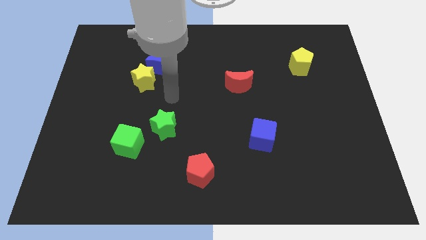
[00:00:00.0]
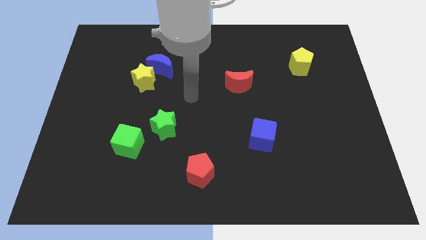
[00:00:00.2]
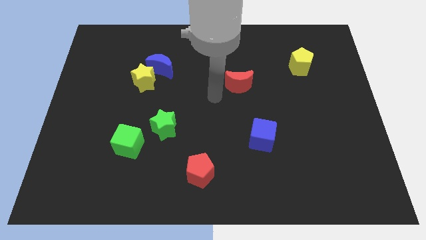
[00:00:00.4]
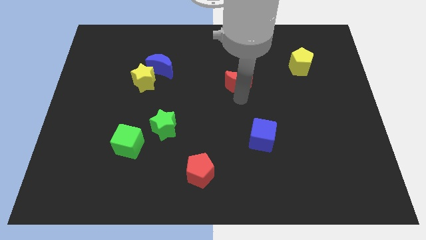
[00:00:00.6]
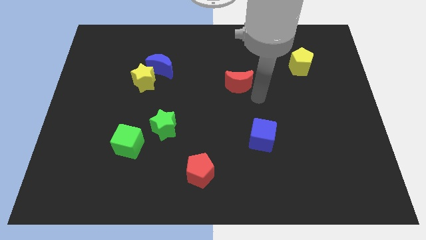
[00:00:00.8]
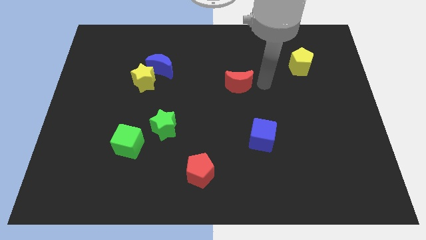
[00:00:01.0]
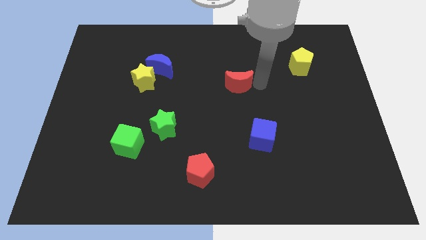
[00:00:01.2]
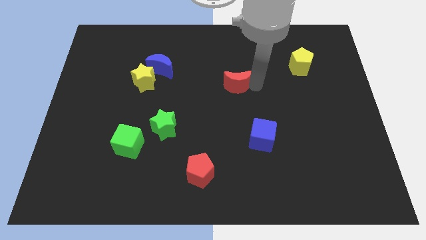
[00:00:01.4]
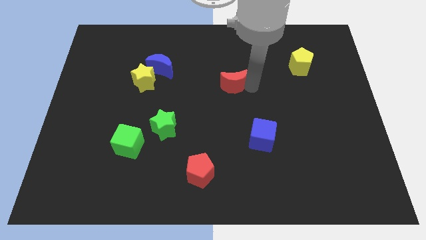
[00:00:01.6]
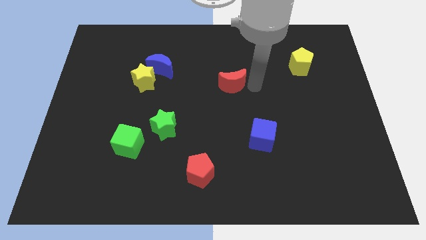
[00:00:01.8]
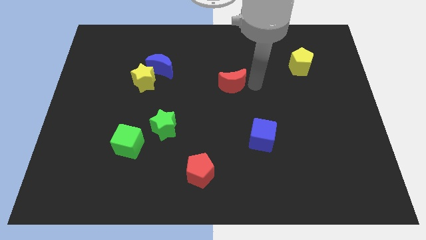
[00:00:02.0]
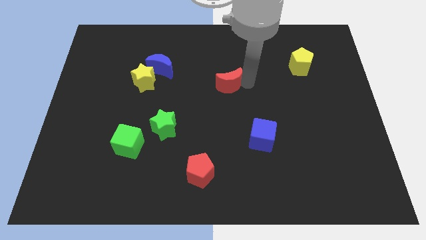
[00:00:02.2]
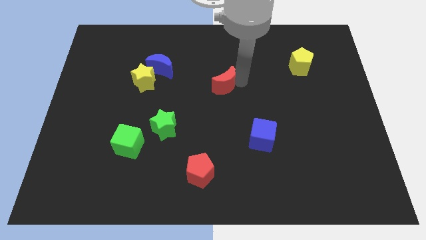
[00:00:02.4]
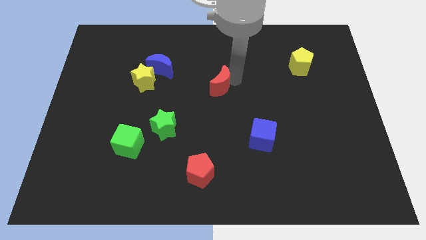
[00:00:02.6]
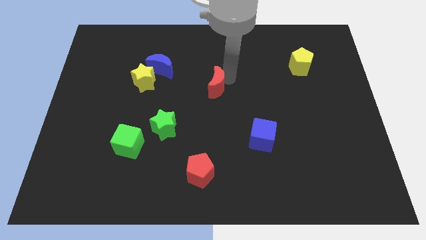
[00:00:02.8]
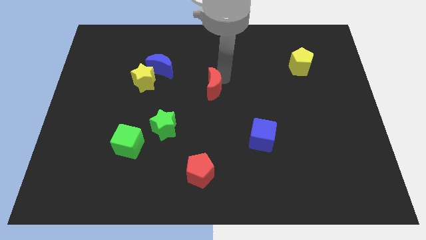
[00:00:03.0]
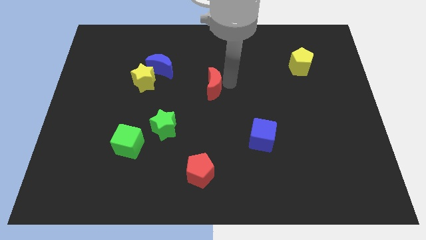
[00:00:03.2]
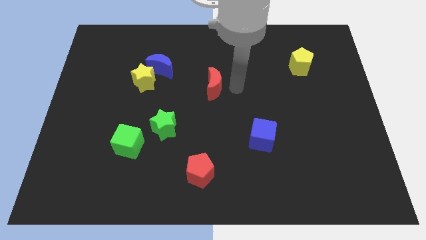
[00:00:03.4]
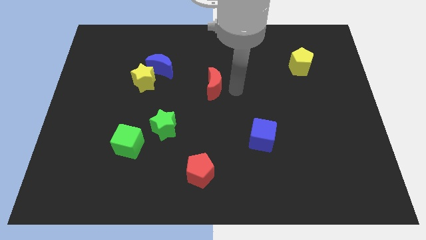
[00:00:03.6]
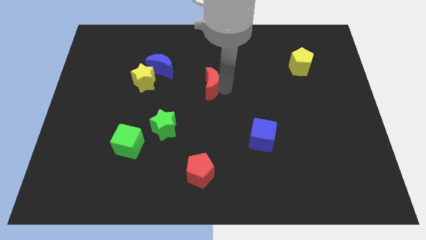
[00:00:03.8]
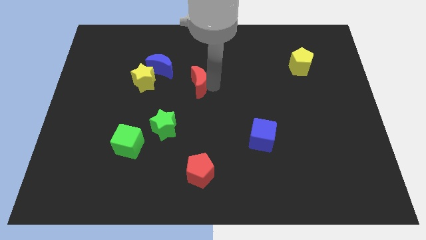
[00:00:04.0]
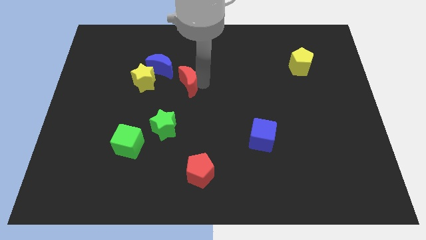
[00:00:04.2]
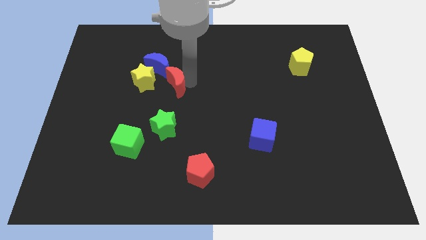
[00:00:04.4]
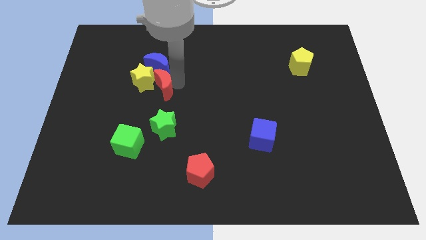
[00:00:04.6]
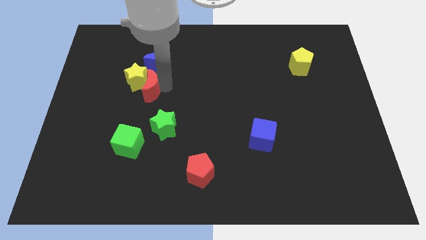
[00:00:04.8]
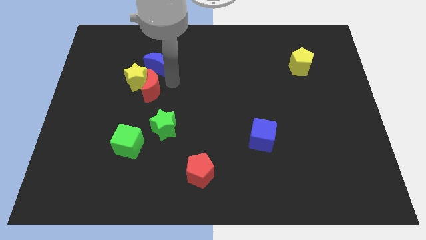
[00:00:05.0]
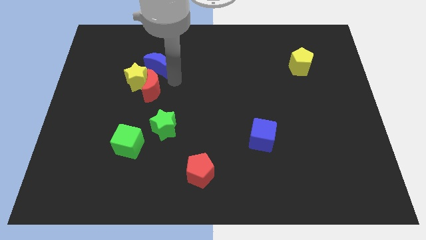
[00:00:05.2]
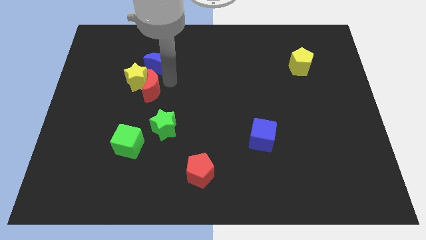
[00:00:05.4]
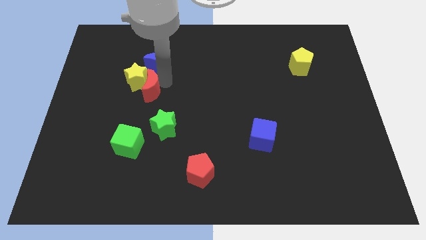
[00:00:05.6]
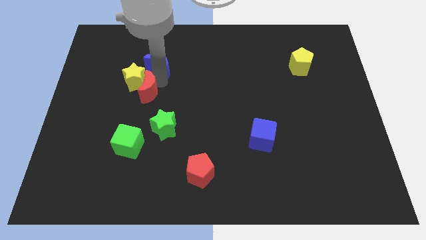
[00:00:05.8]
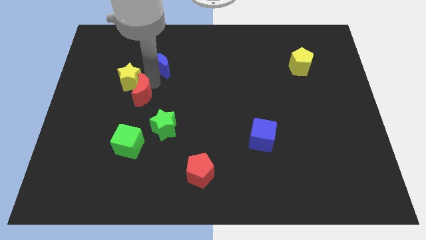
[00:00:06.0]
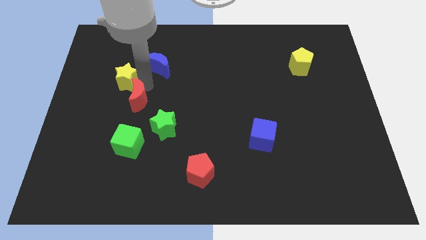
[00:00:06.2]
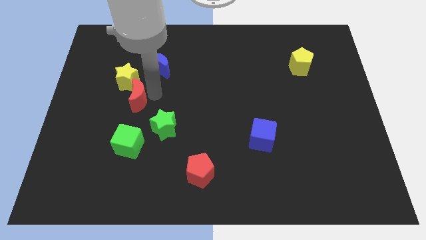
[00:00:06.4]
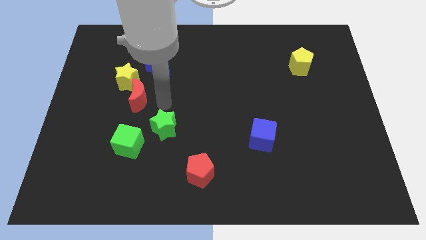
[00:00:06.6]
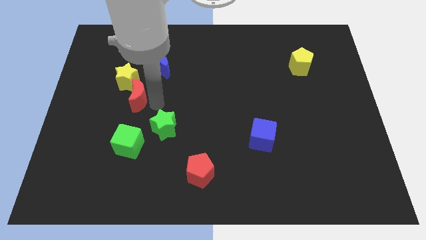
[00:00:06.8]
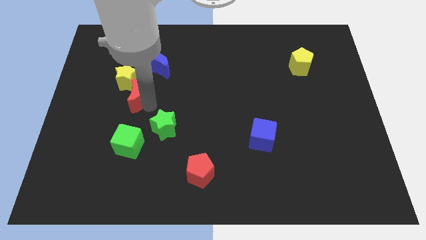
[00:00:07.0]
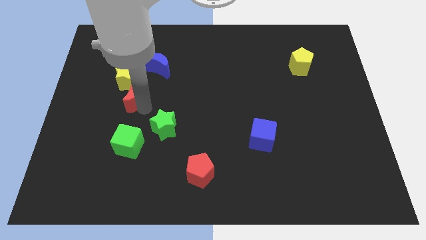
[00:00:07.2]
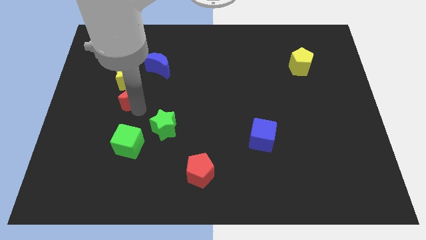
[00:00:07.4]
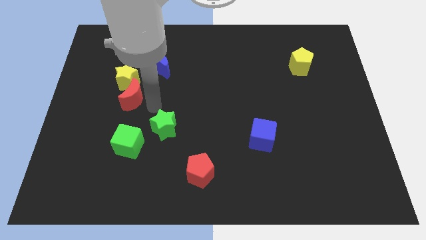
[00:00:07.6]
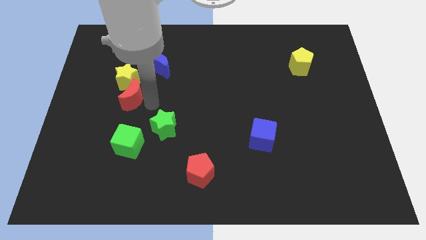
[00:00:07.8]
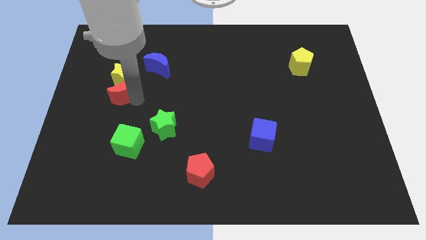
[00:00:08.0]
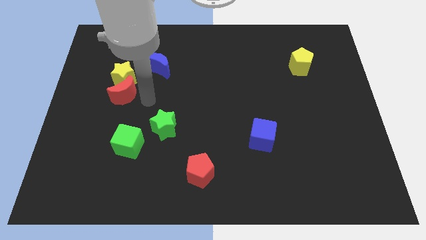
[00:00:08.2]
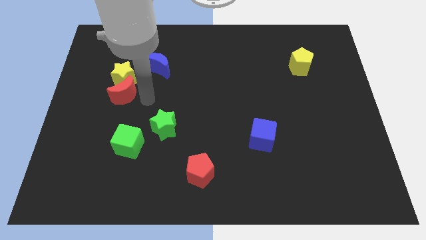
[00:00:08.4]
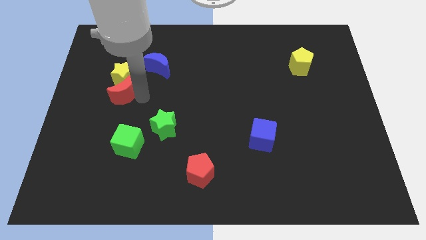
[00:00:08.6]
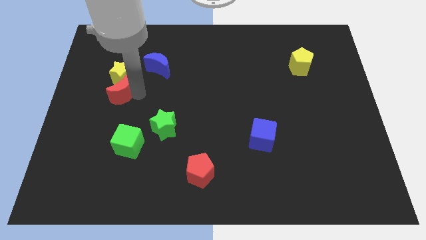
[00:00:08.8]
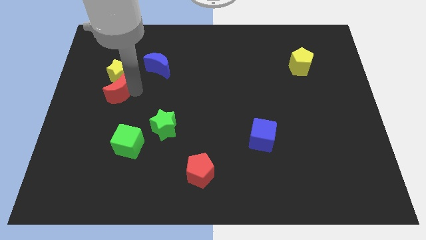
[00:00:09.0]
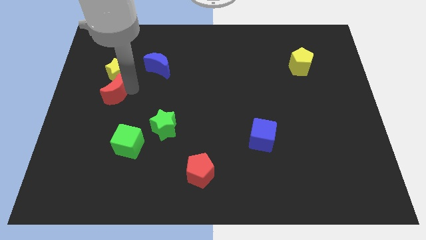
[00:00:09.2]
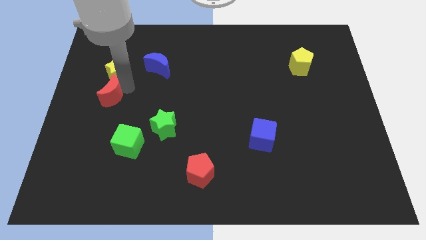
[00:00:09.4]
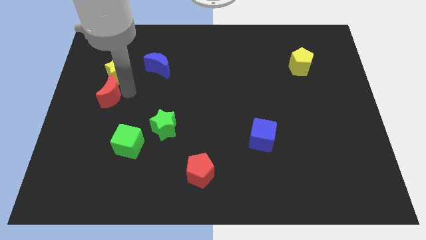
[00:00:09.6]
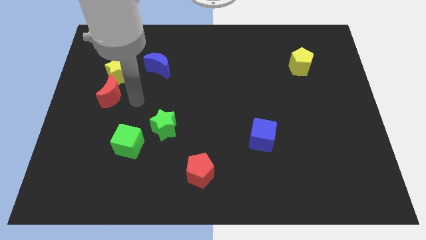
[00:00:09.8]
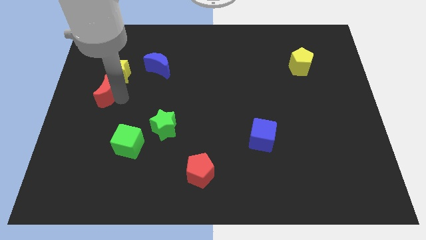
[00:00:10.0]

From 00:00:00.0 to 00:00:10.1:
move the red moon to the left side of the board

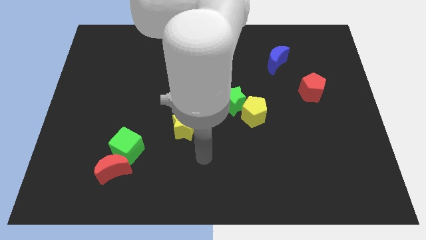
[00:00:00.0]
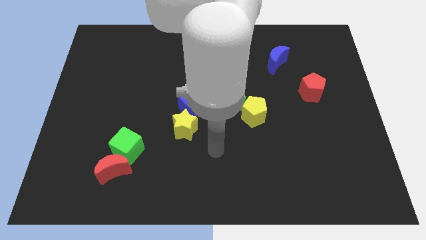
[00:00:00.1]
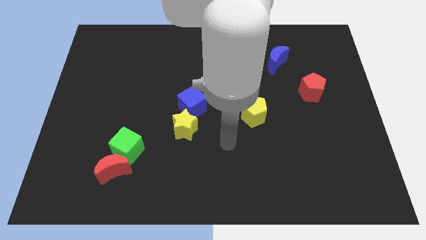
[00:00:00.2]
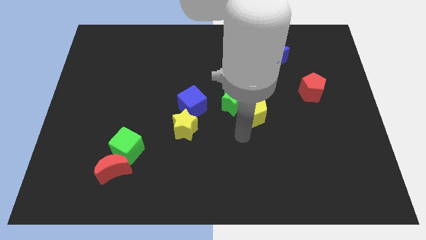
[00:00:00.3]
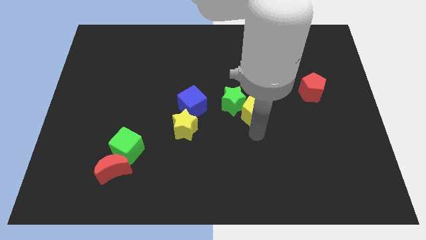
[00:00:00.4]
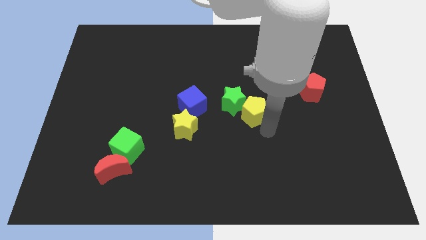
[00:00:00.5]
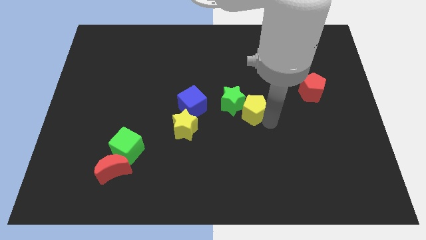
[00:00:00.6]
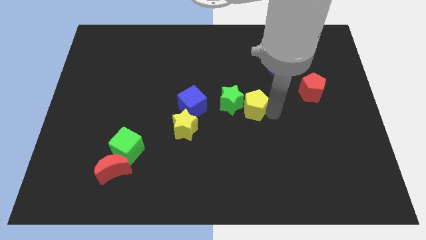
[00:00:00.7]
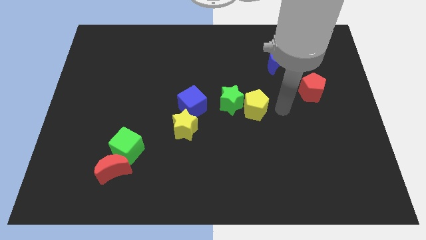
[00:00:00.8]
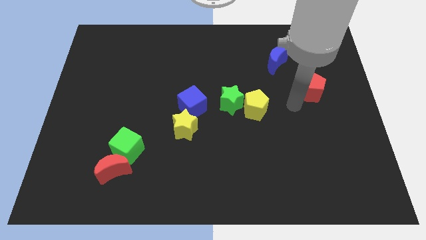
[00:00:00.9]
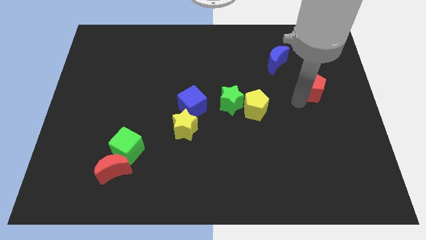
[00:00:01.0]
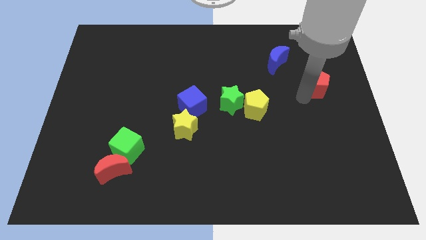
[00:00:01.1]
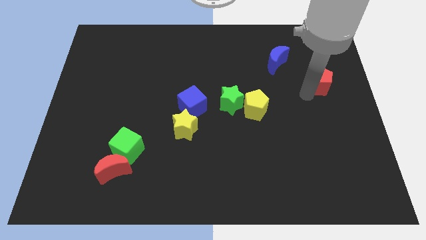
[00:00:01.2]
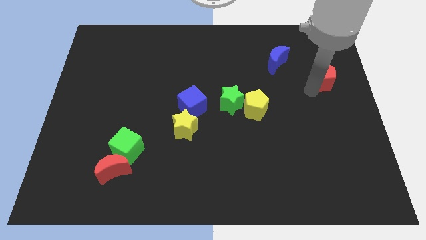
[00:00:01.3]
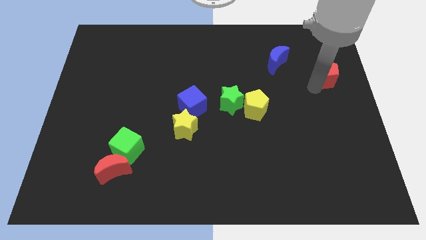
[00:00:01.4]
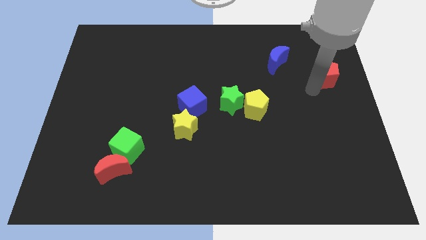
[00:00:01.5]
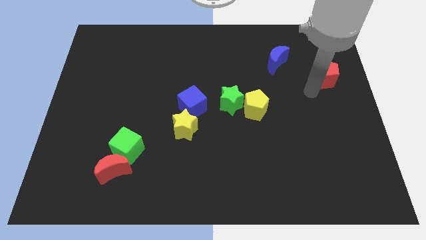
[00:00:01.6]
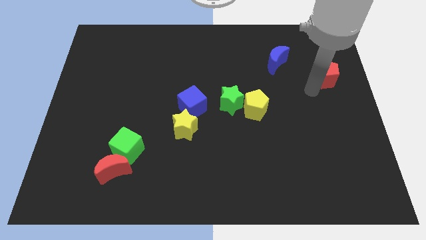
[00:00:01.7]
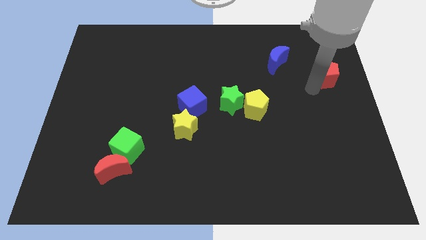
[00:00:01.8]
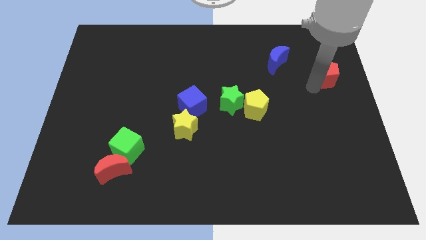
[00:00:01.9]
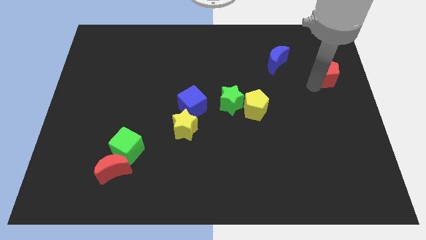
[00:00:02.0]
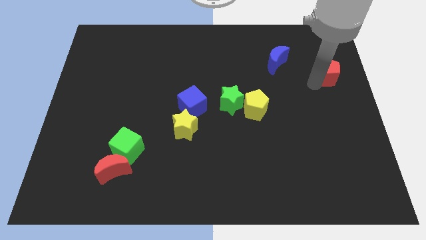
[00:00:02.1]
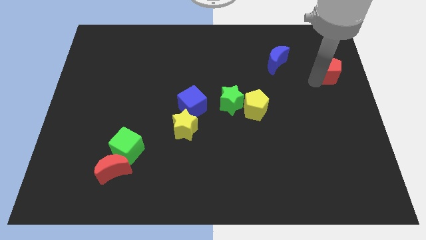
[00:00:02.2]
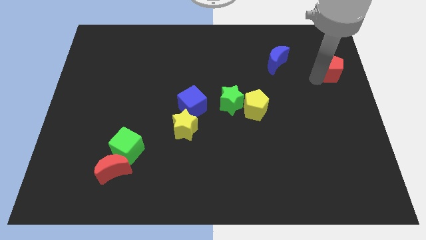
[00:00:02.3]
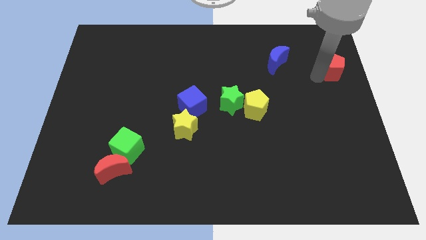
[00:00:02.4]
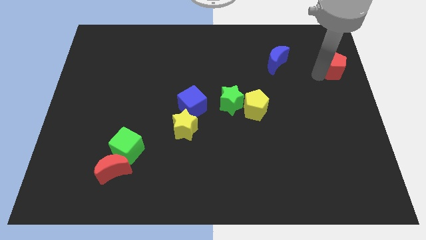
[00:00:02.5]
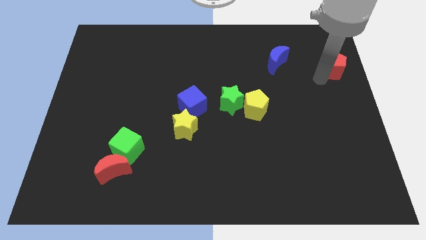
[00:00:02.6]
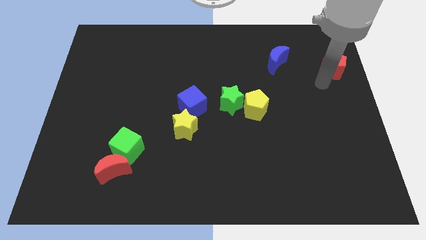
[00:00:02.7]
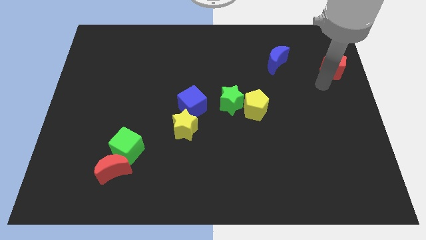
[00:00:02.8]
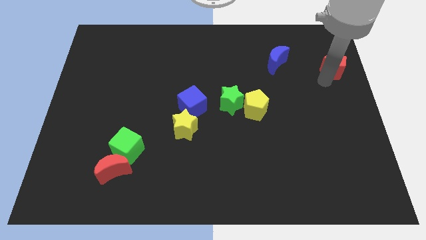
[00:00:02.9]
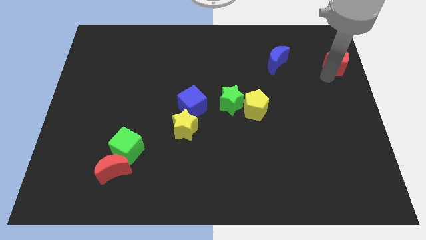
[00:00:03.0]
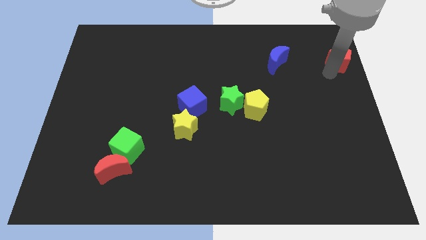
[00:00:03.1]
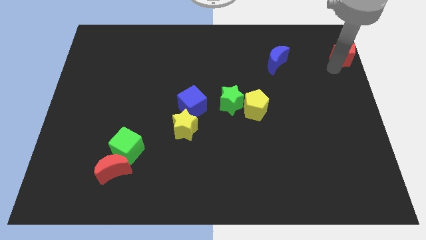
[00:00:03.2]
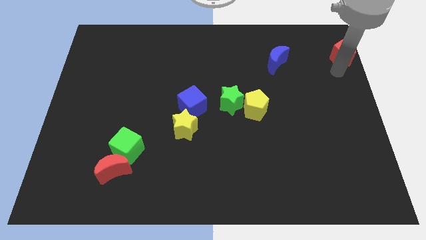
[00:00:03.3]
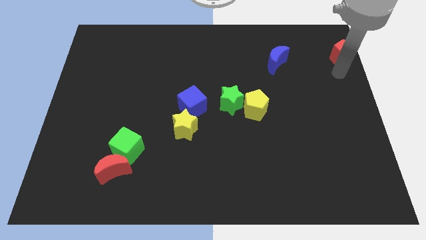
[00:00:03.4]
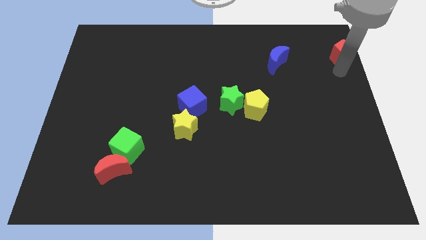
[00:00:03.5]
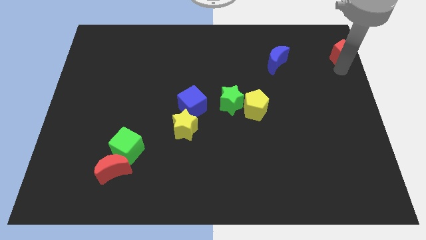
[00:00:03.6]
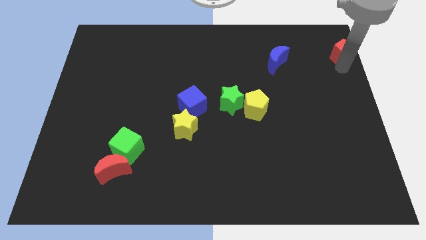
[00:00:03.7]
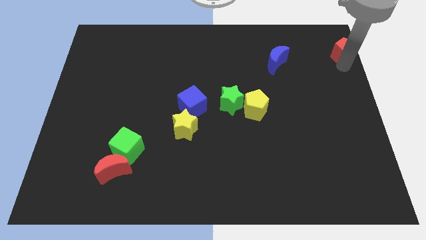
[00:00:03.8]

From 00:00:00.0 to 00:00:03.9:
move the red pentagon to the top right
